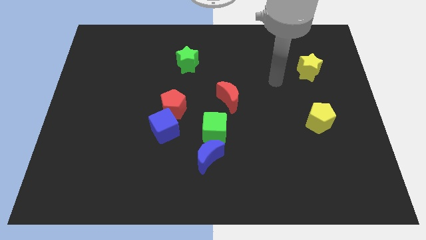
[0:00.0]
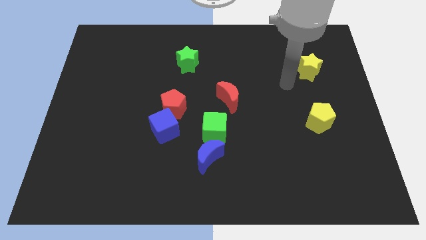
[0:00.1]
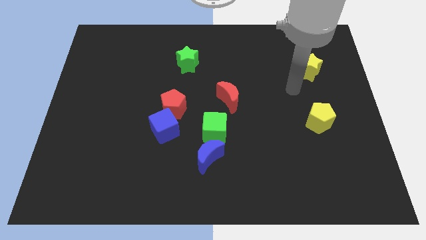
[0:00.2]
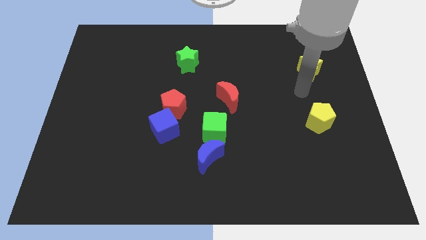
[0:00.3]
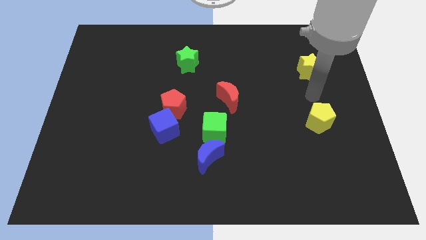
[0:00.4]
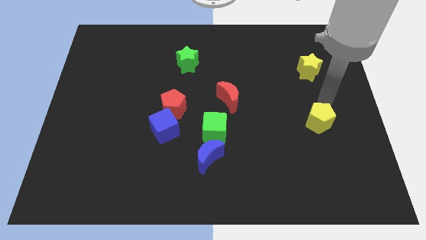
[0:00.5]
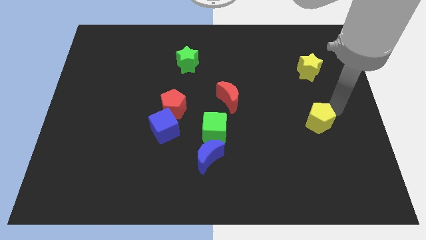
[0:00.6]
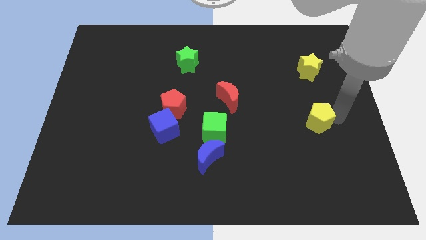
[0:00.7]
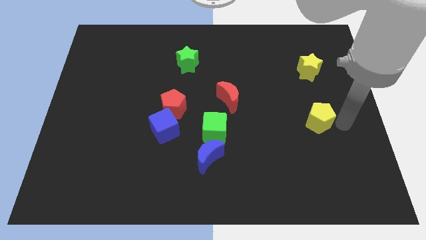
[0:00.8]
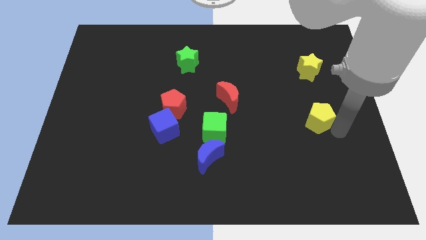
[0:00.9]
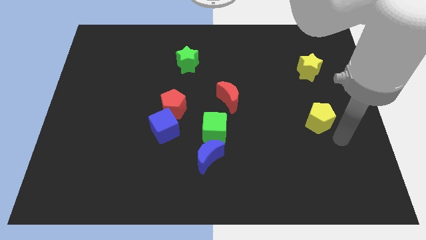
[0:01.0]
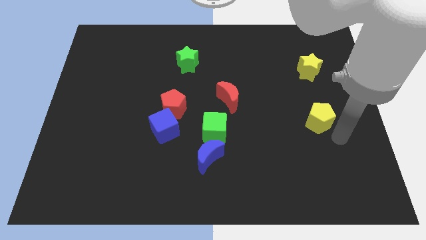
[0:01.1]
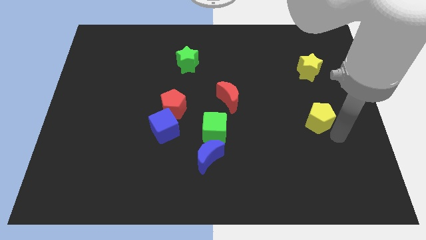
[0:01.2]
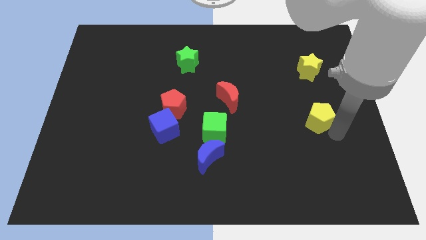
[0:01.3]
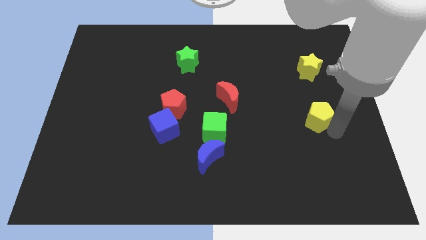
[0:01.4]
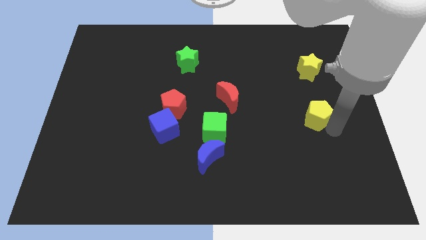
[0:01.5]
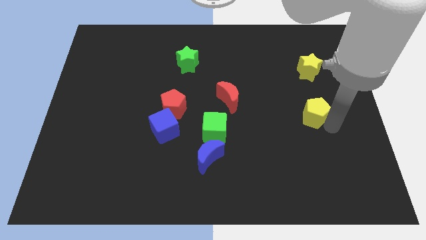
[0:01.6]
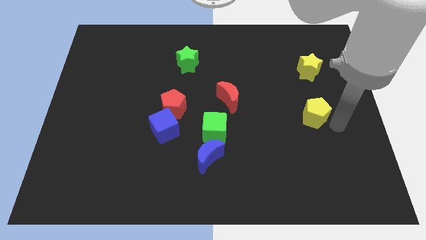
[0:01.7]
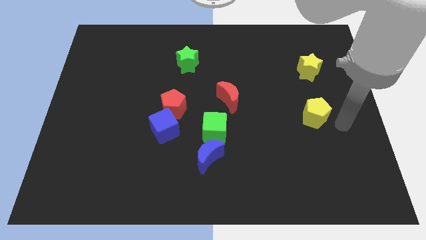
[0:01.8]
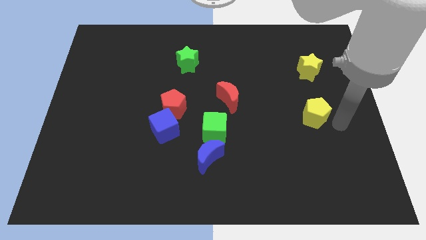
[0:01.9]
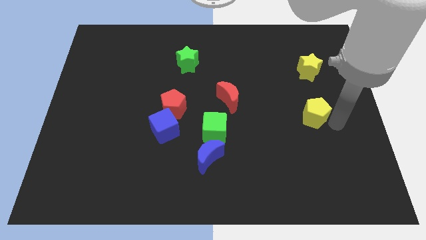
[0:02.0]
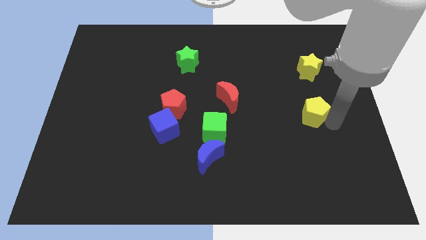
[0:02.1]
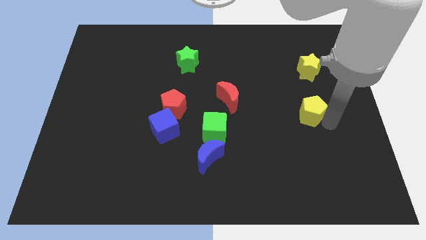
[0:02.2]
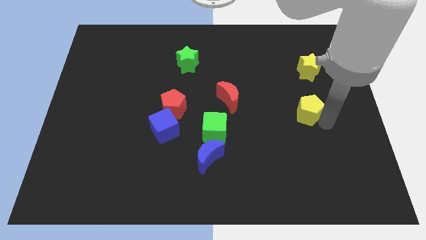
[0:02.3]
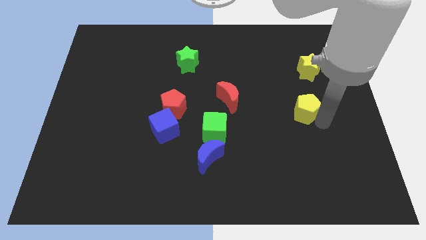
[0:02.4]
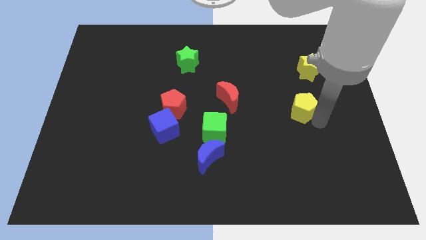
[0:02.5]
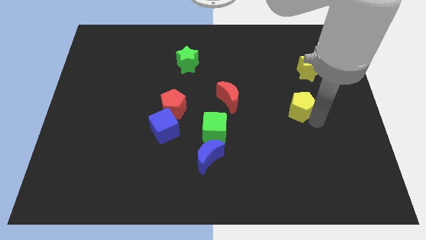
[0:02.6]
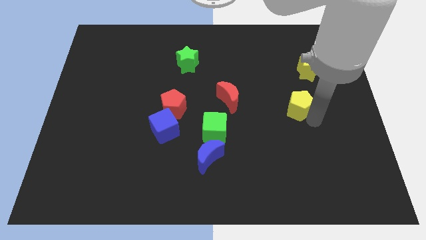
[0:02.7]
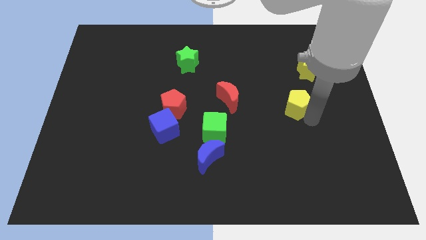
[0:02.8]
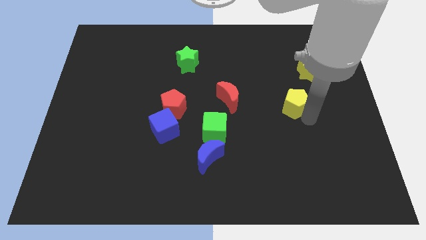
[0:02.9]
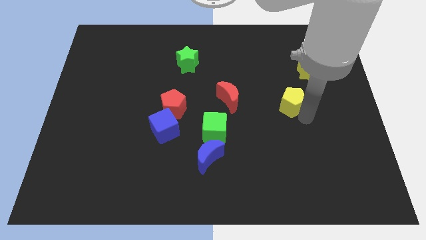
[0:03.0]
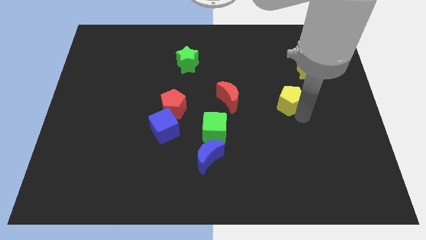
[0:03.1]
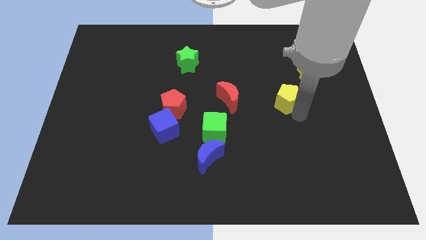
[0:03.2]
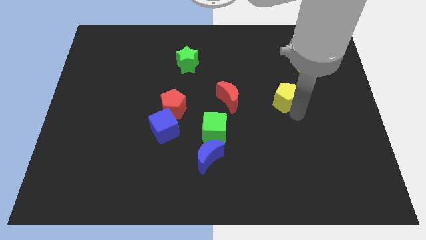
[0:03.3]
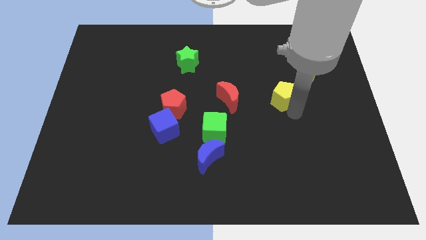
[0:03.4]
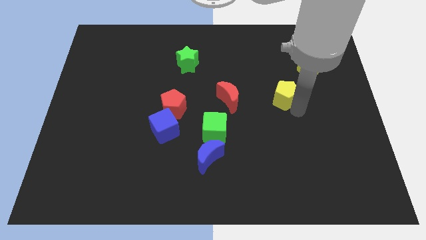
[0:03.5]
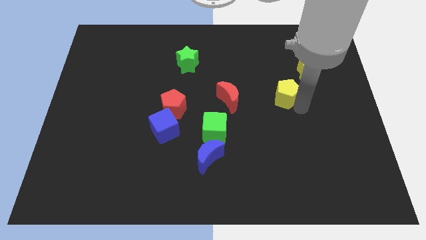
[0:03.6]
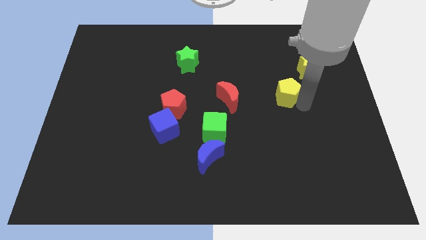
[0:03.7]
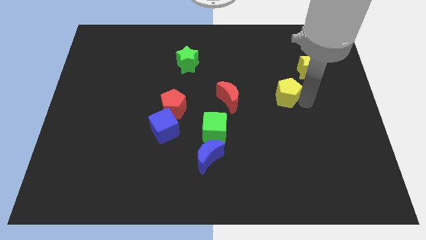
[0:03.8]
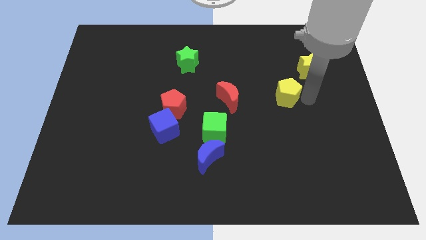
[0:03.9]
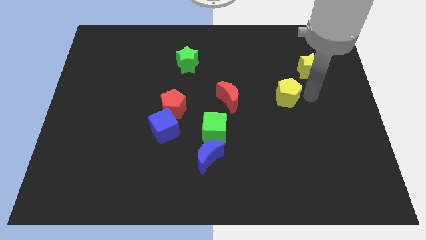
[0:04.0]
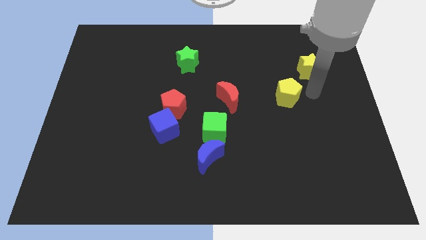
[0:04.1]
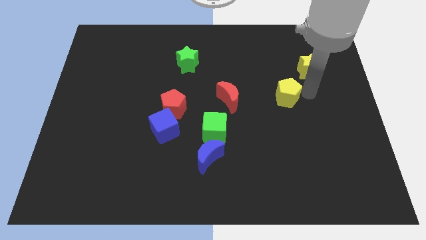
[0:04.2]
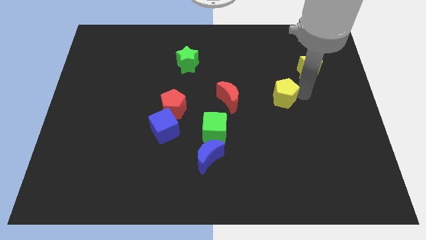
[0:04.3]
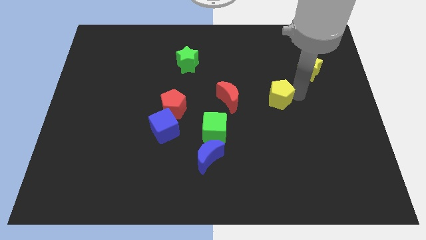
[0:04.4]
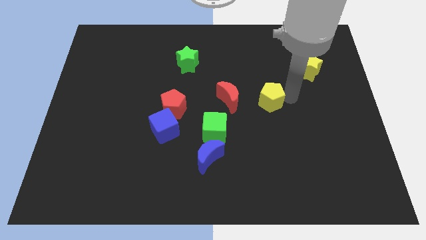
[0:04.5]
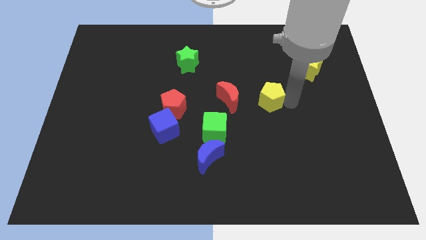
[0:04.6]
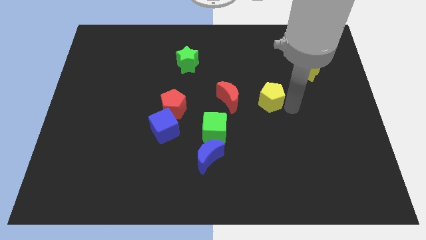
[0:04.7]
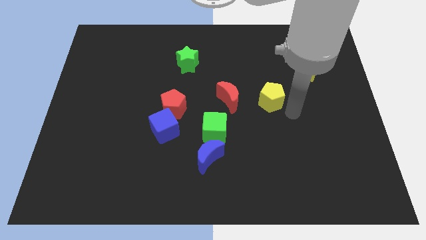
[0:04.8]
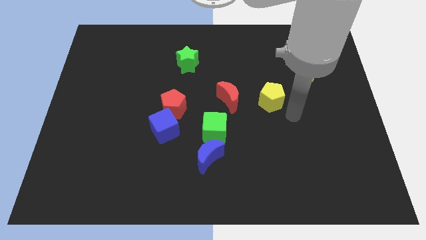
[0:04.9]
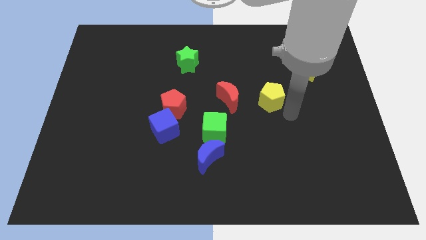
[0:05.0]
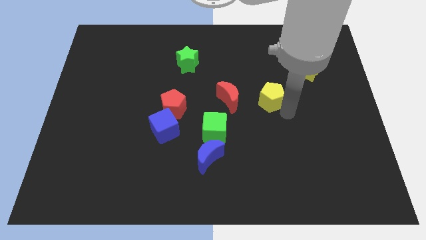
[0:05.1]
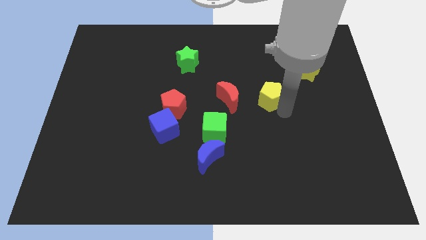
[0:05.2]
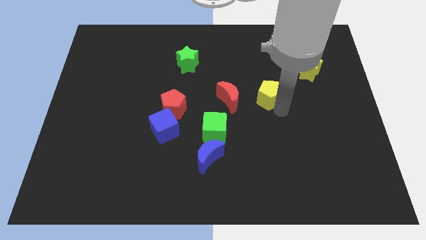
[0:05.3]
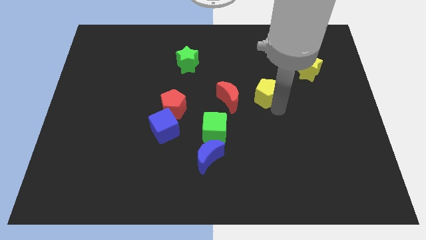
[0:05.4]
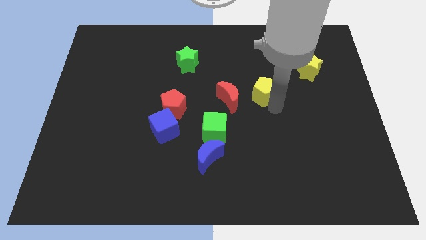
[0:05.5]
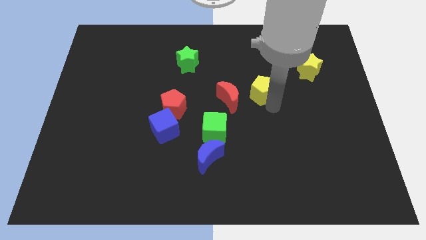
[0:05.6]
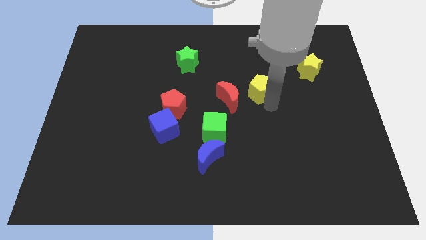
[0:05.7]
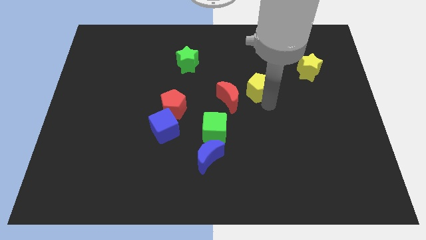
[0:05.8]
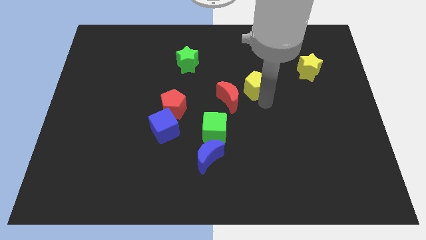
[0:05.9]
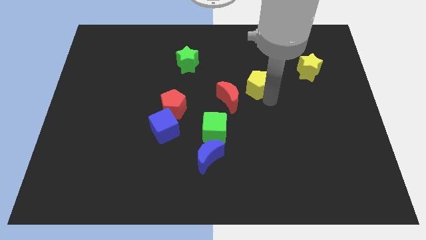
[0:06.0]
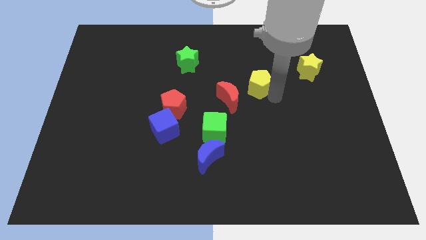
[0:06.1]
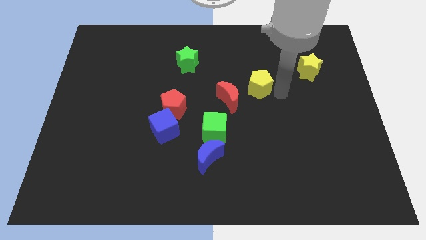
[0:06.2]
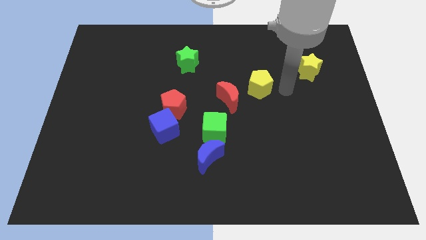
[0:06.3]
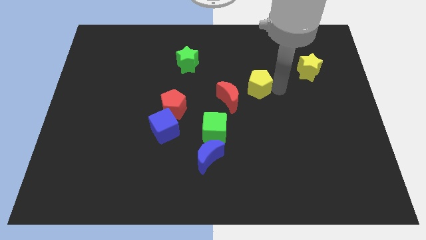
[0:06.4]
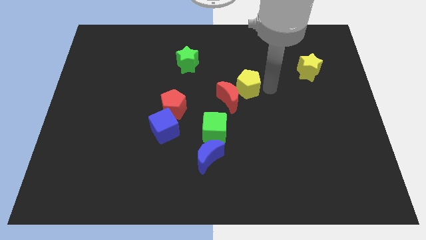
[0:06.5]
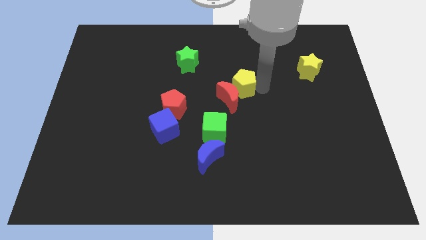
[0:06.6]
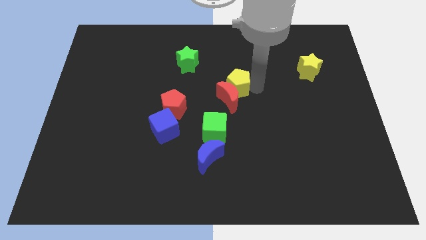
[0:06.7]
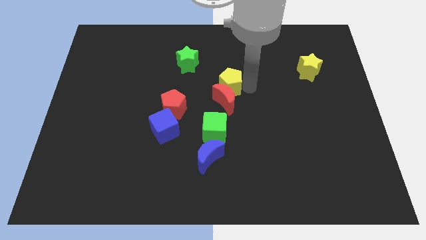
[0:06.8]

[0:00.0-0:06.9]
put the yellow pentagon to the top left side of the red moon
